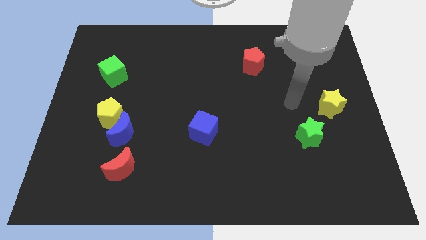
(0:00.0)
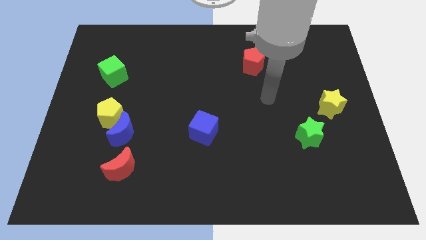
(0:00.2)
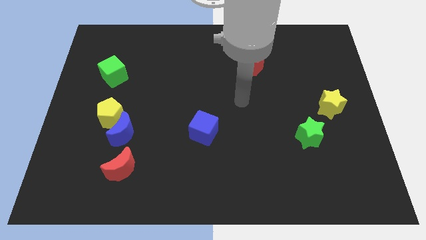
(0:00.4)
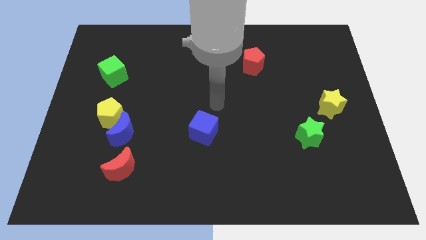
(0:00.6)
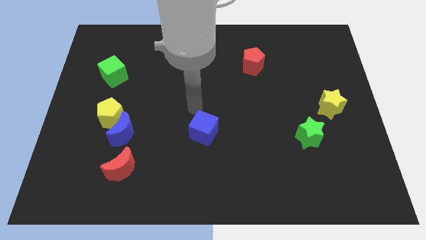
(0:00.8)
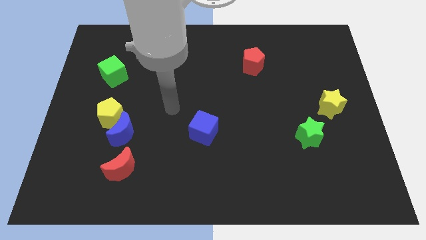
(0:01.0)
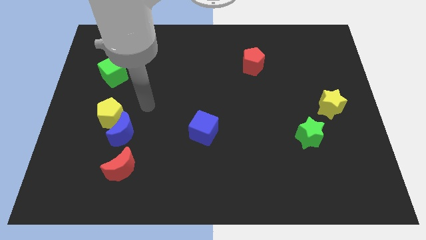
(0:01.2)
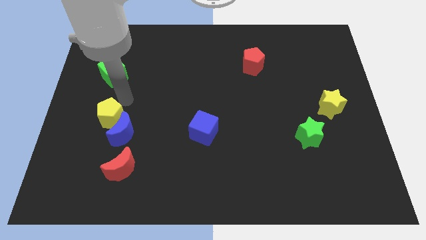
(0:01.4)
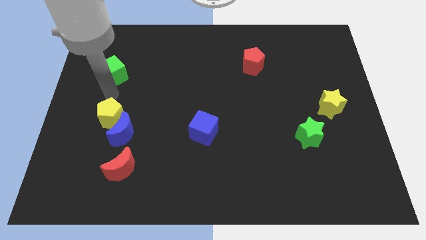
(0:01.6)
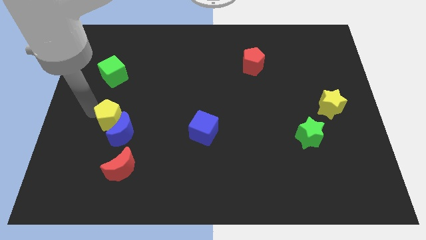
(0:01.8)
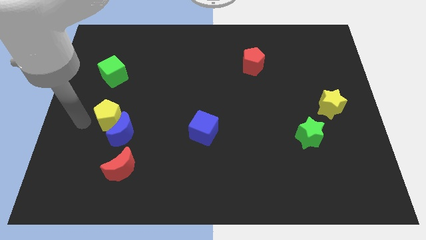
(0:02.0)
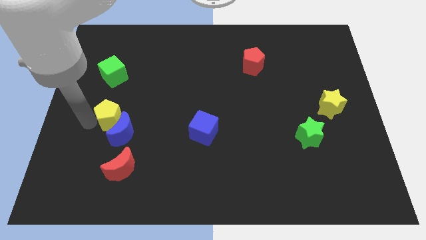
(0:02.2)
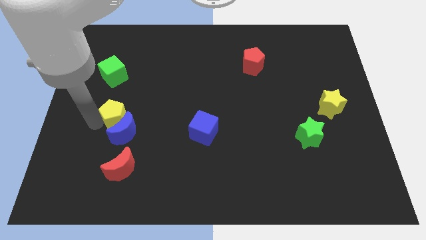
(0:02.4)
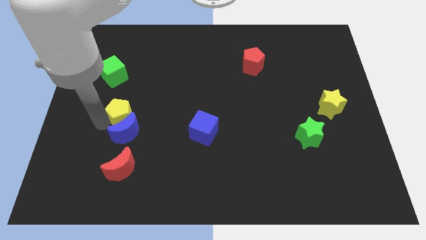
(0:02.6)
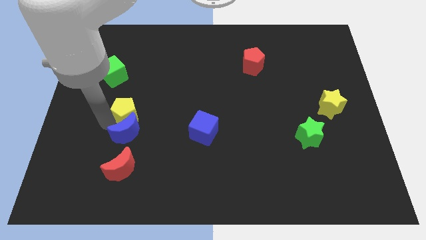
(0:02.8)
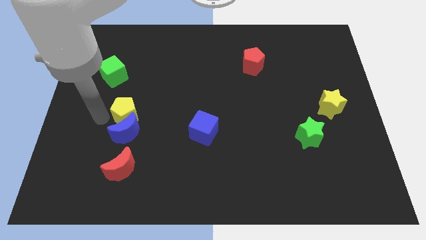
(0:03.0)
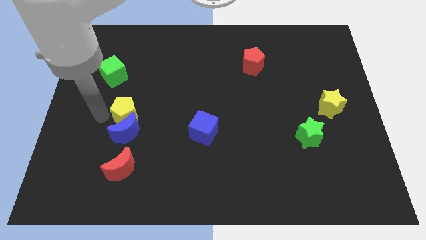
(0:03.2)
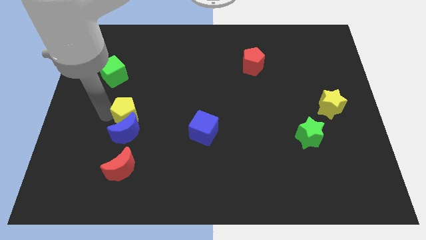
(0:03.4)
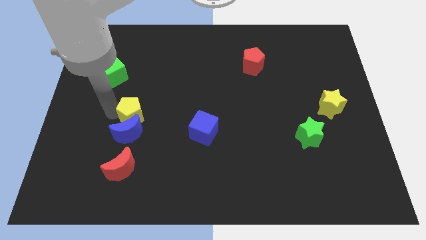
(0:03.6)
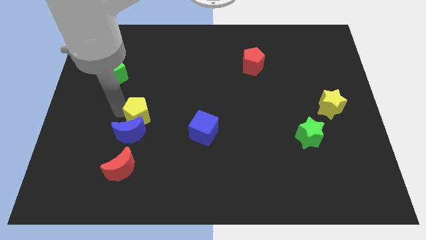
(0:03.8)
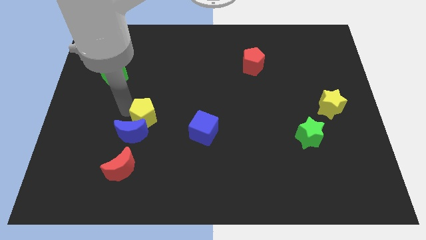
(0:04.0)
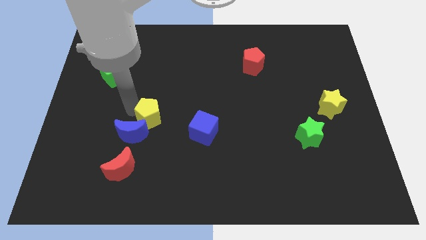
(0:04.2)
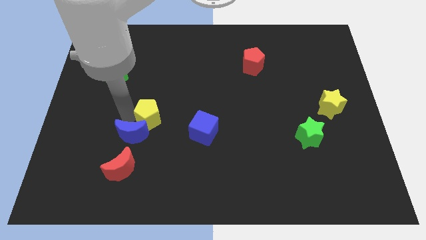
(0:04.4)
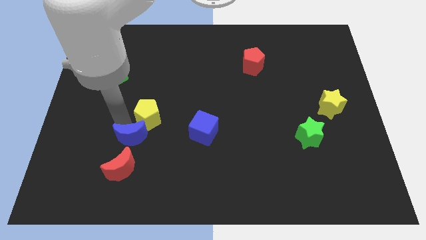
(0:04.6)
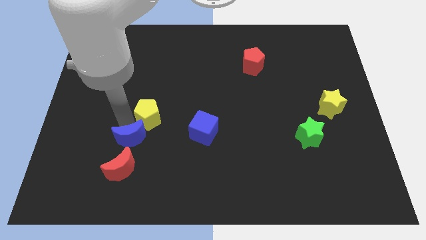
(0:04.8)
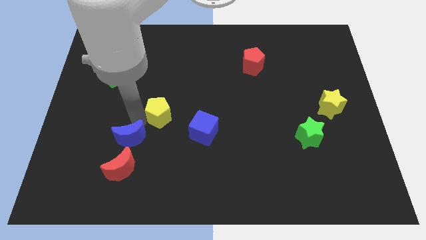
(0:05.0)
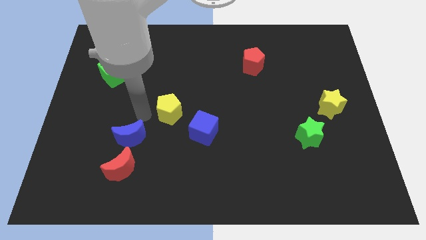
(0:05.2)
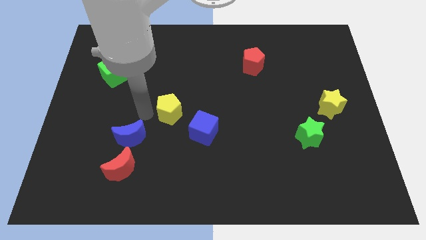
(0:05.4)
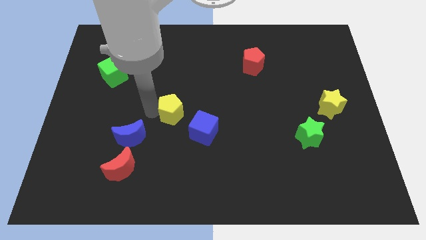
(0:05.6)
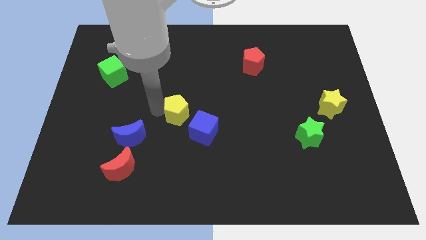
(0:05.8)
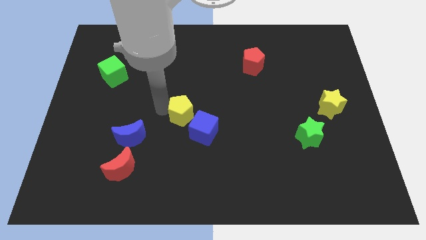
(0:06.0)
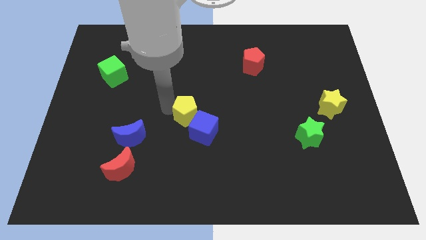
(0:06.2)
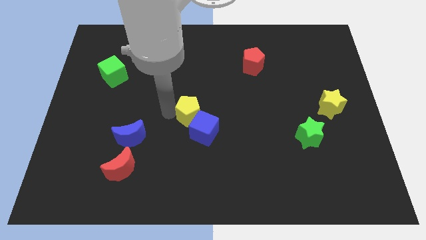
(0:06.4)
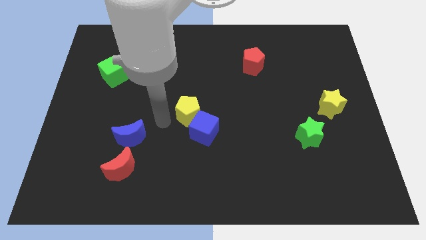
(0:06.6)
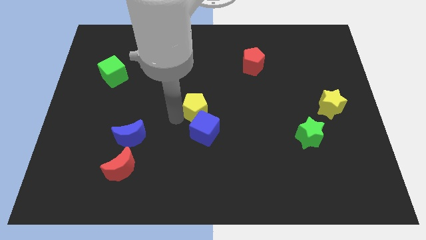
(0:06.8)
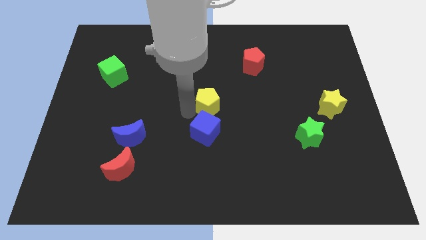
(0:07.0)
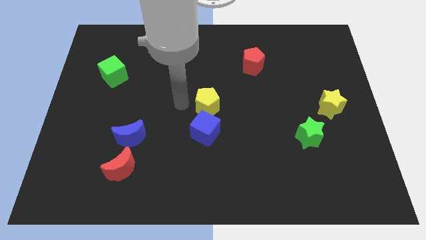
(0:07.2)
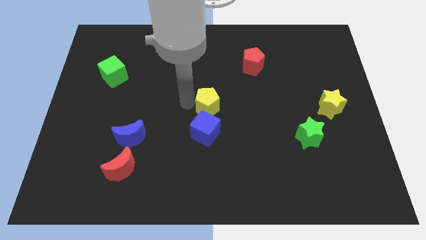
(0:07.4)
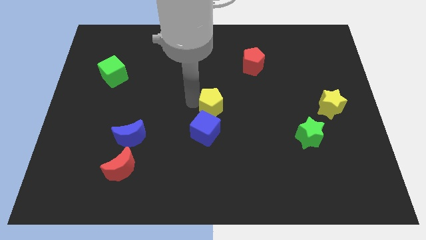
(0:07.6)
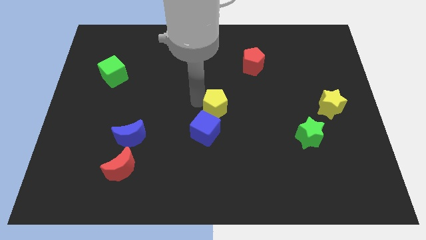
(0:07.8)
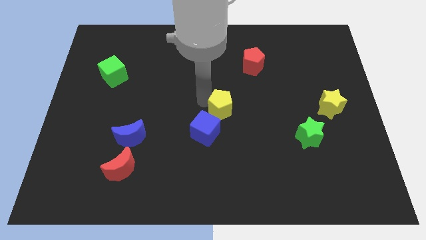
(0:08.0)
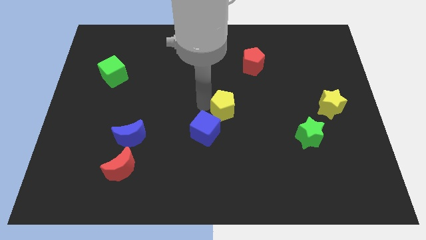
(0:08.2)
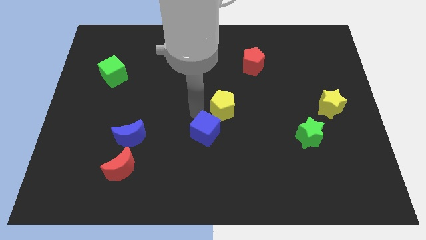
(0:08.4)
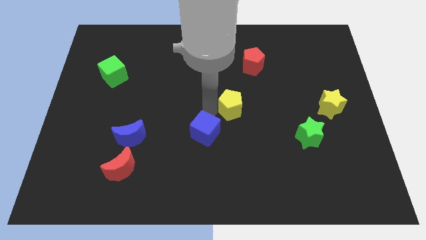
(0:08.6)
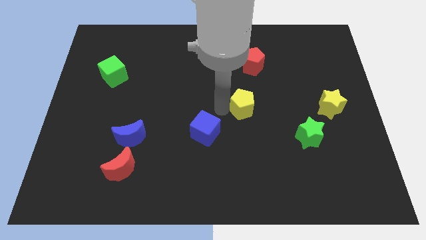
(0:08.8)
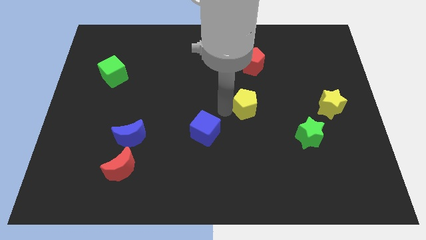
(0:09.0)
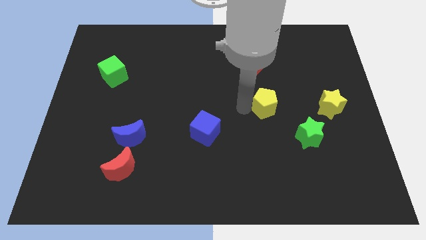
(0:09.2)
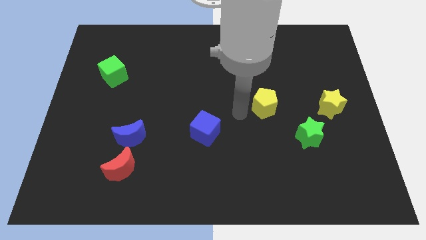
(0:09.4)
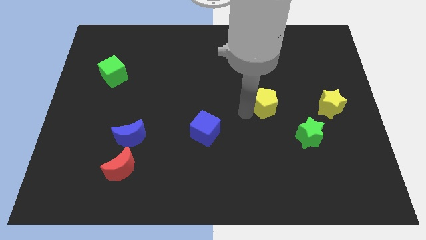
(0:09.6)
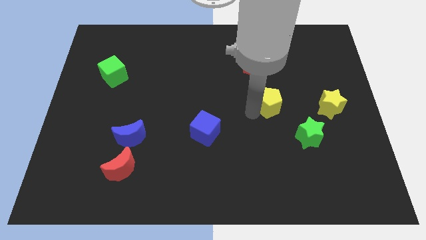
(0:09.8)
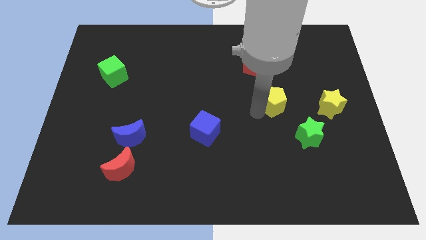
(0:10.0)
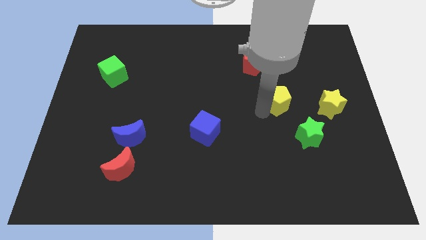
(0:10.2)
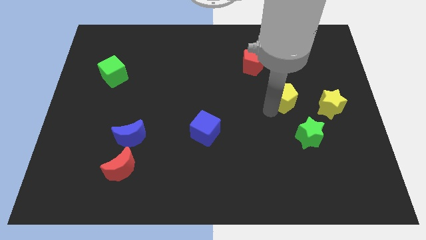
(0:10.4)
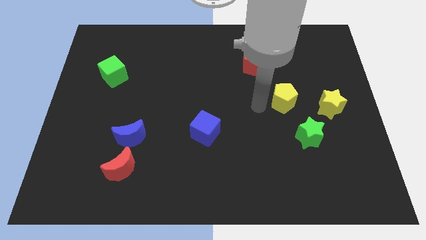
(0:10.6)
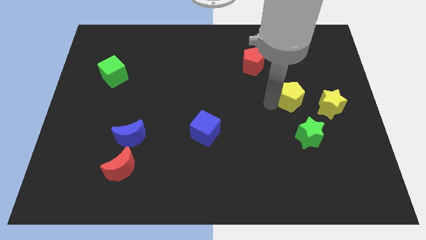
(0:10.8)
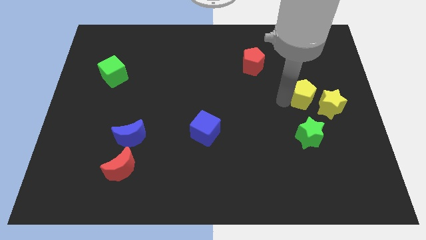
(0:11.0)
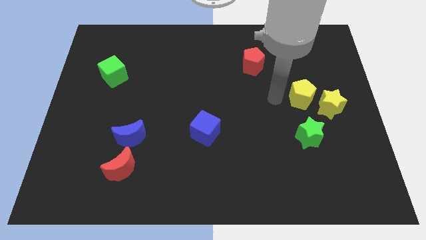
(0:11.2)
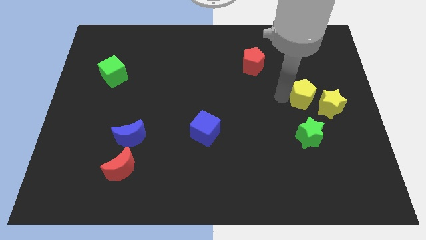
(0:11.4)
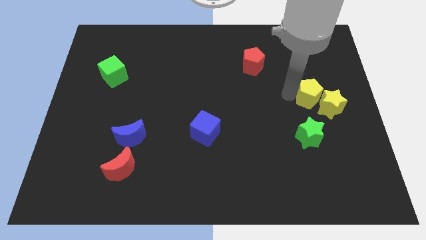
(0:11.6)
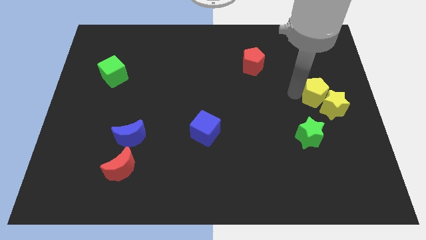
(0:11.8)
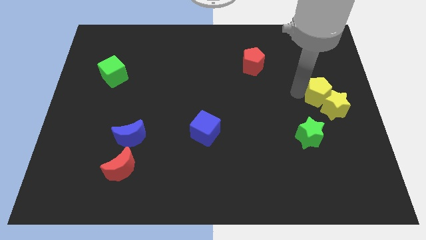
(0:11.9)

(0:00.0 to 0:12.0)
move the yellow pentagon to the right side
